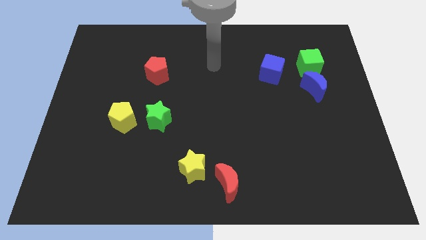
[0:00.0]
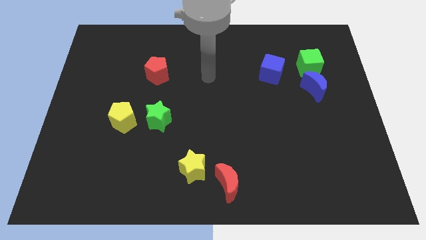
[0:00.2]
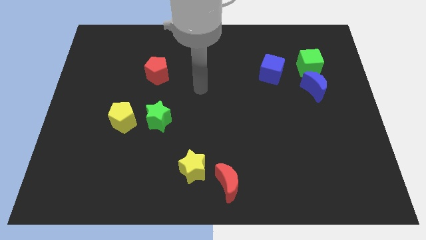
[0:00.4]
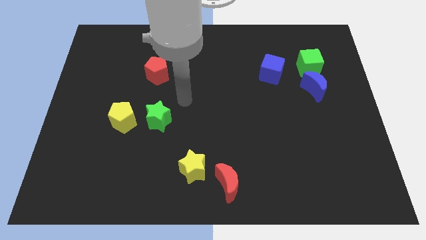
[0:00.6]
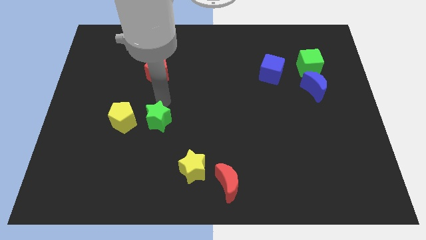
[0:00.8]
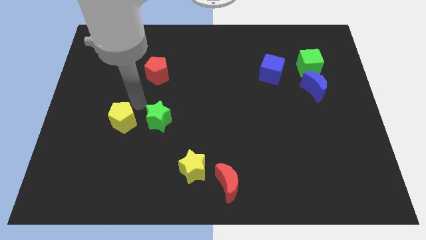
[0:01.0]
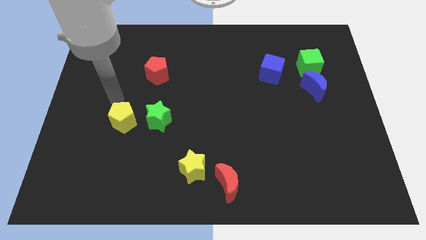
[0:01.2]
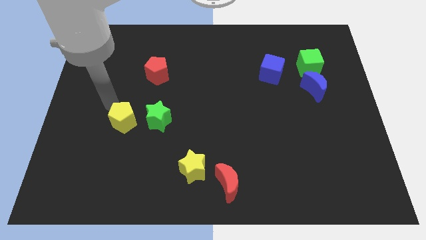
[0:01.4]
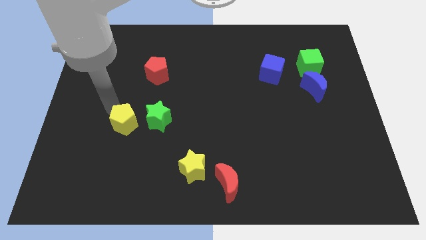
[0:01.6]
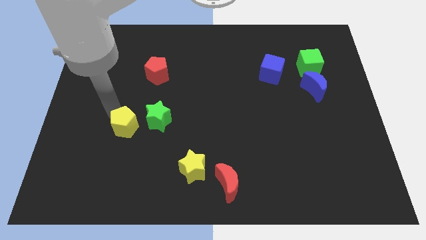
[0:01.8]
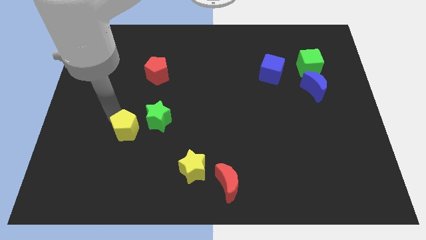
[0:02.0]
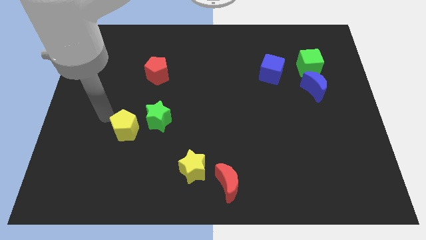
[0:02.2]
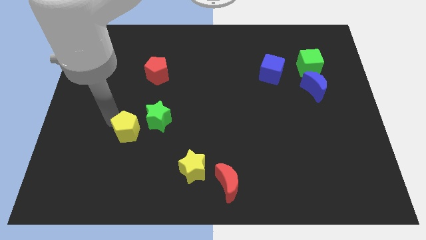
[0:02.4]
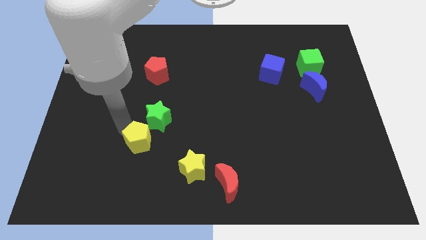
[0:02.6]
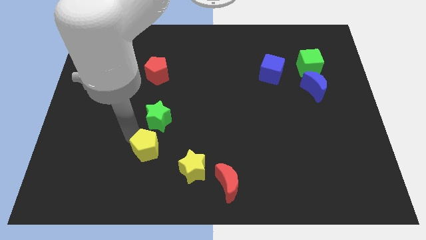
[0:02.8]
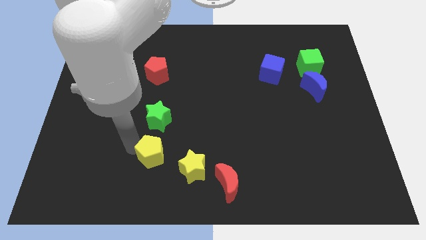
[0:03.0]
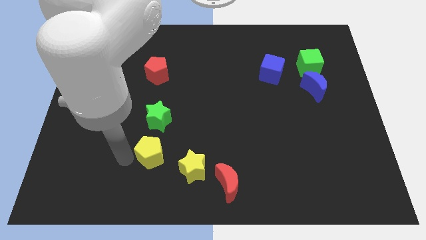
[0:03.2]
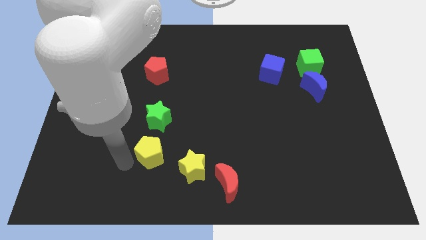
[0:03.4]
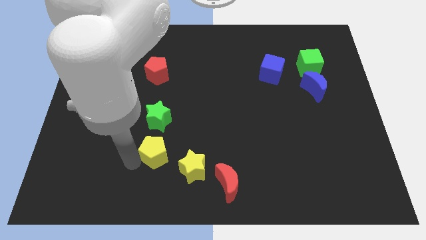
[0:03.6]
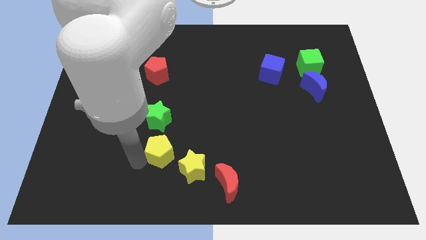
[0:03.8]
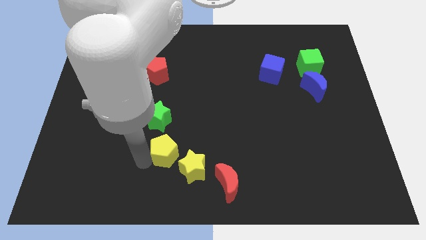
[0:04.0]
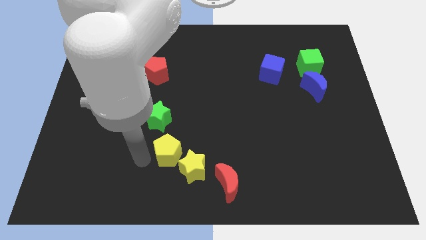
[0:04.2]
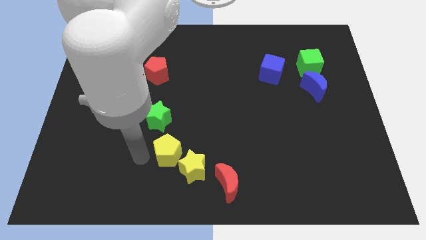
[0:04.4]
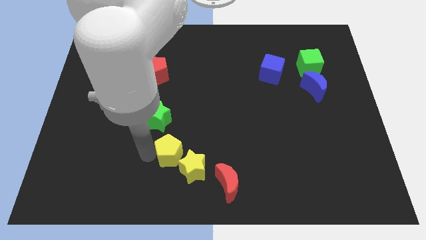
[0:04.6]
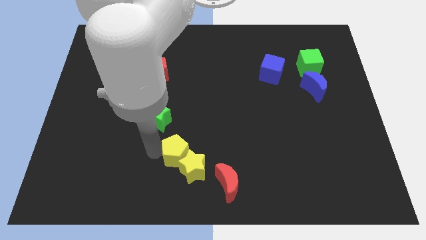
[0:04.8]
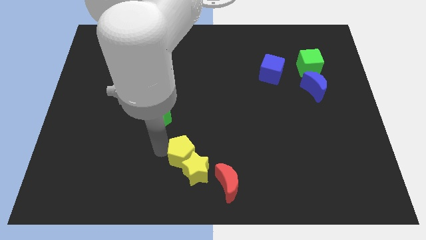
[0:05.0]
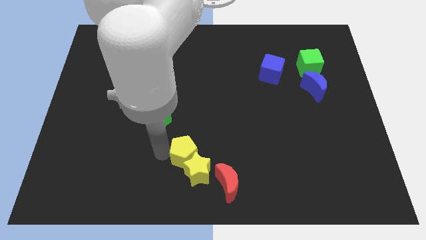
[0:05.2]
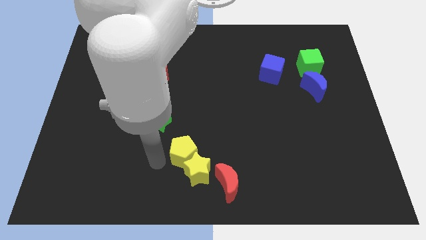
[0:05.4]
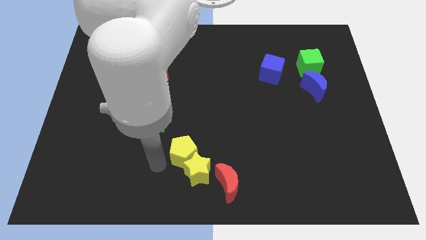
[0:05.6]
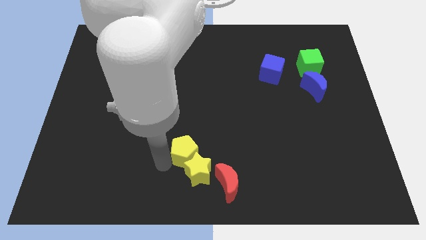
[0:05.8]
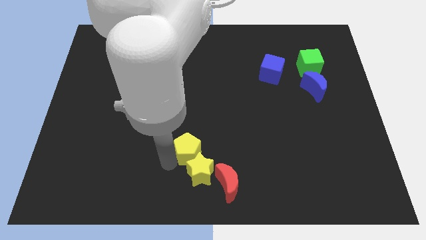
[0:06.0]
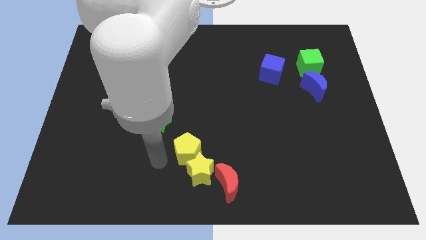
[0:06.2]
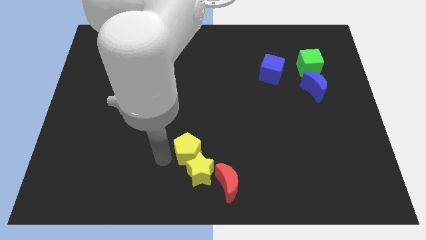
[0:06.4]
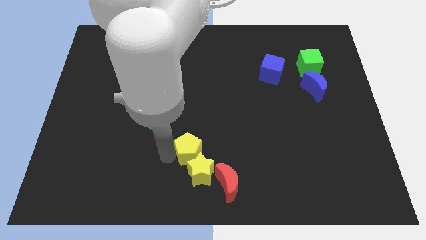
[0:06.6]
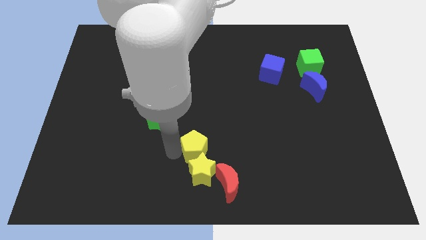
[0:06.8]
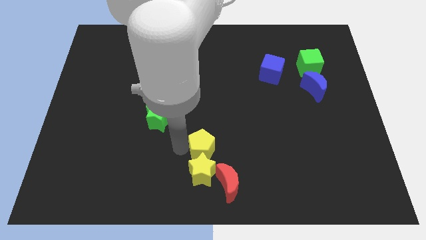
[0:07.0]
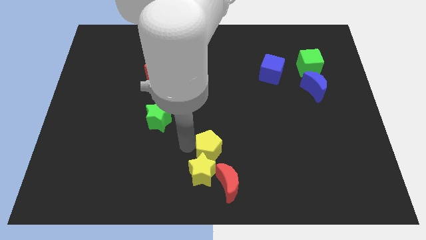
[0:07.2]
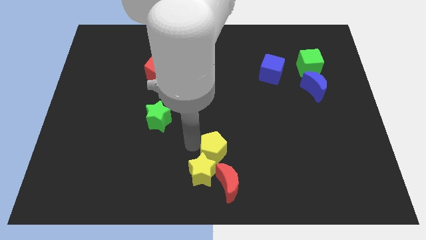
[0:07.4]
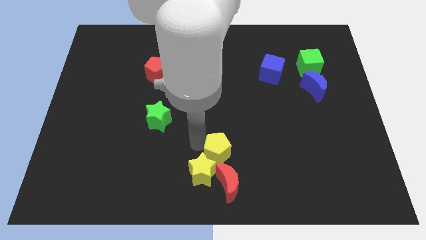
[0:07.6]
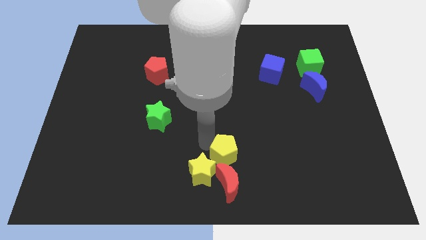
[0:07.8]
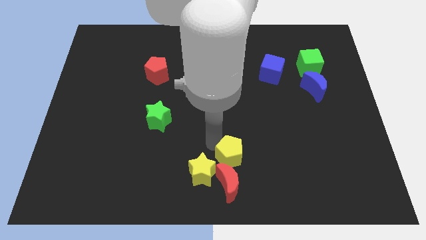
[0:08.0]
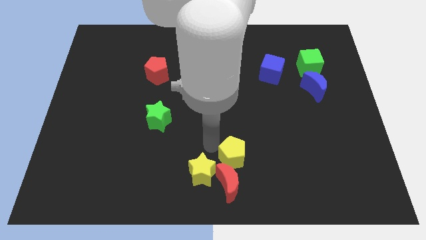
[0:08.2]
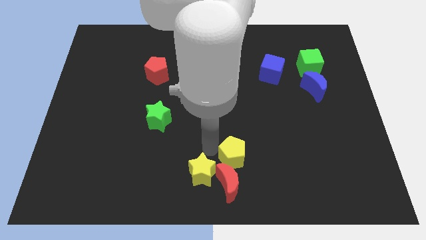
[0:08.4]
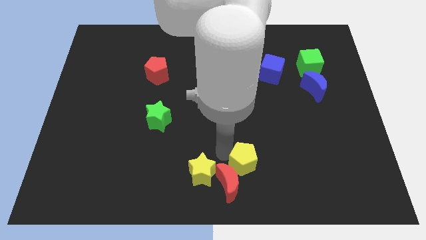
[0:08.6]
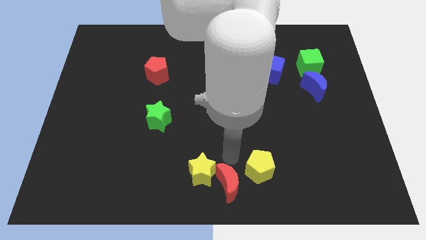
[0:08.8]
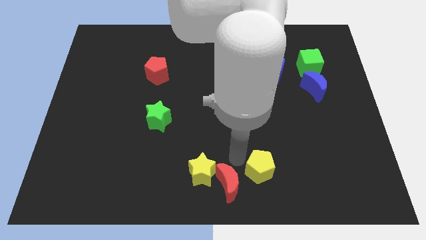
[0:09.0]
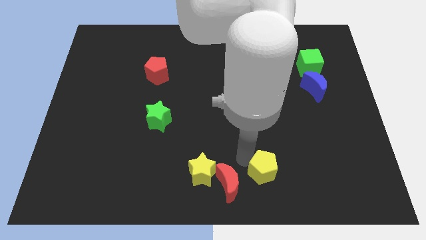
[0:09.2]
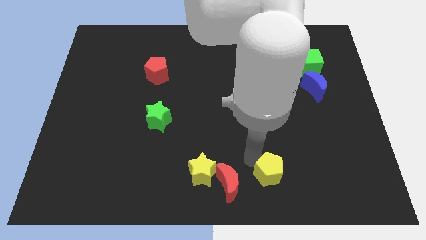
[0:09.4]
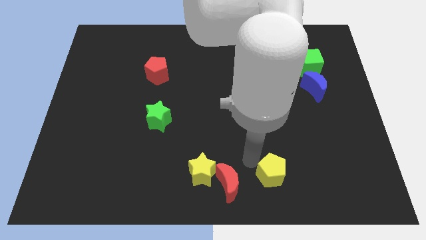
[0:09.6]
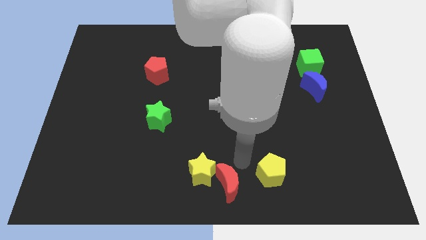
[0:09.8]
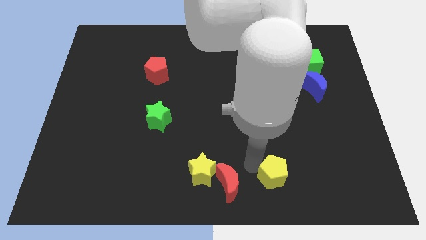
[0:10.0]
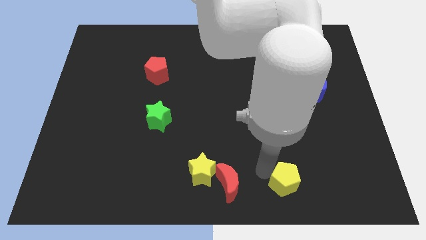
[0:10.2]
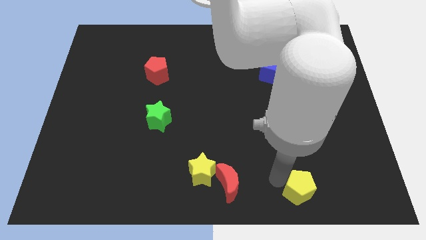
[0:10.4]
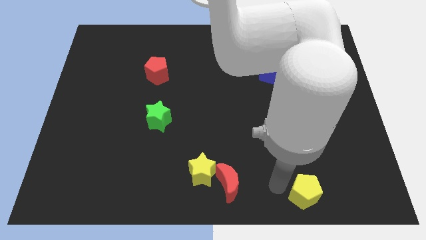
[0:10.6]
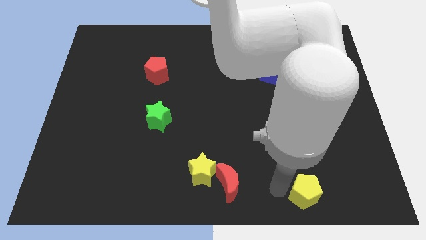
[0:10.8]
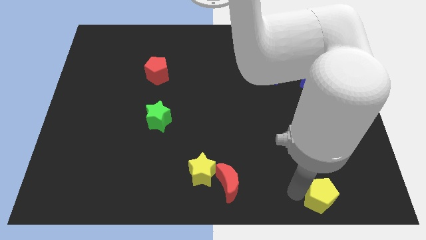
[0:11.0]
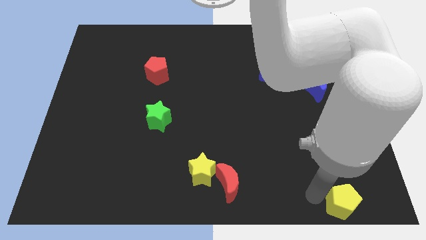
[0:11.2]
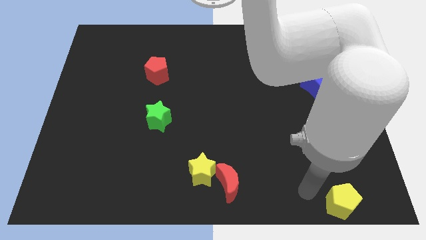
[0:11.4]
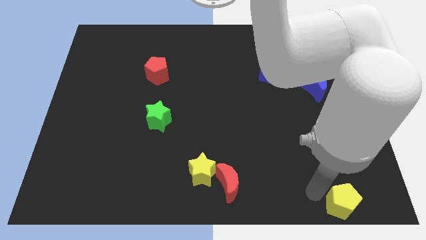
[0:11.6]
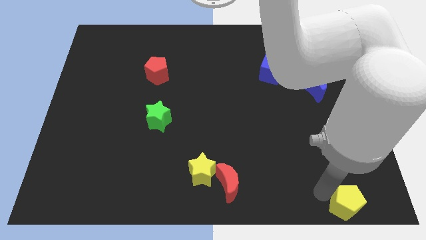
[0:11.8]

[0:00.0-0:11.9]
move the yellow pentagon to the lower right corner
